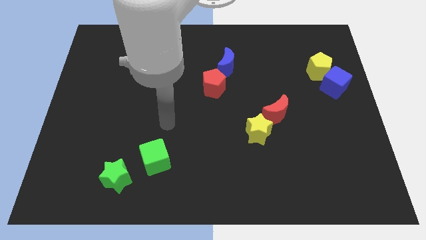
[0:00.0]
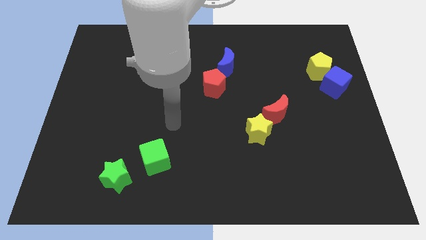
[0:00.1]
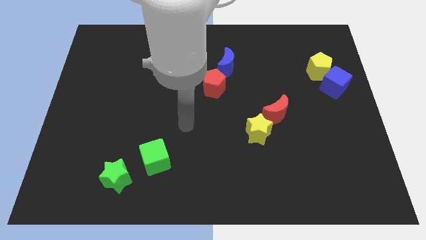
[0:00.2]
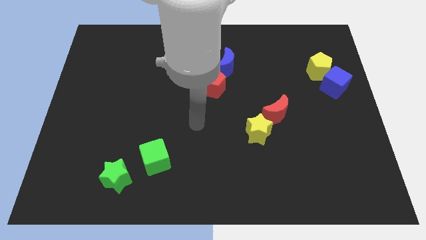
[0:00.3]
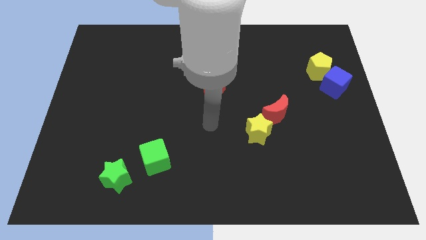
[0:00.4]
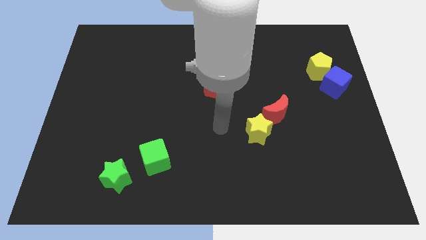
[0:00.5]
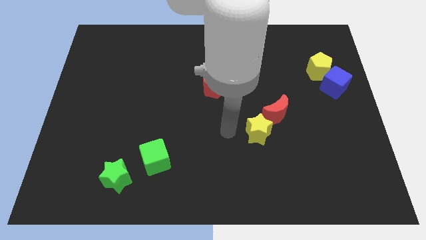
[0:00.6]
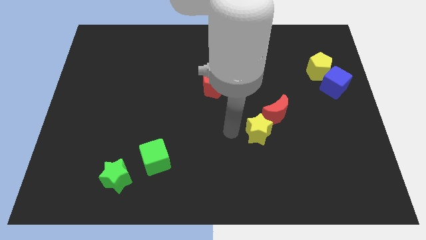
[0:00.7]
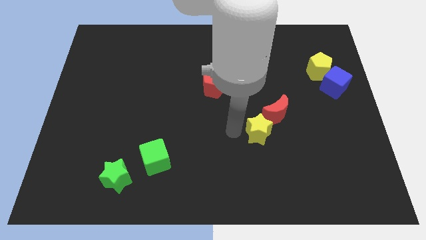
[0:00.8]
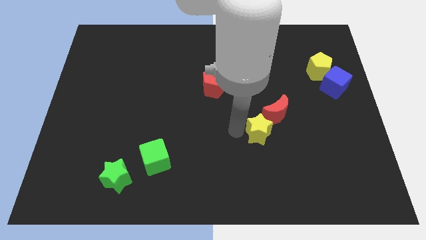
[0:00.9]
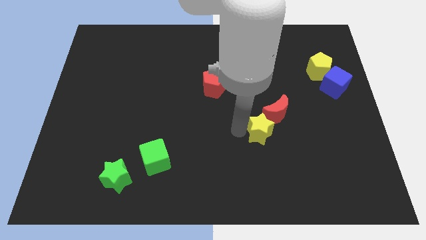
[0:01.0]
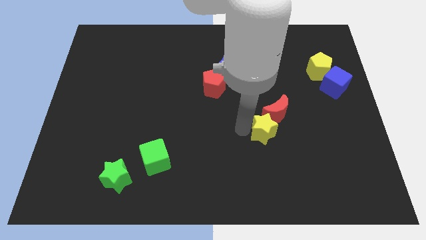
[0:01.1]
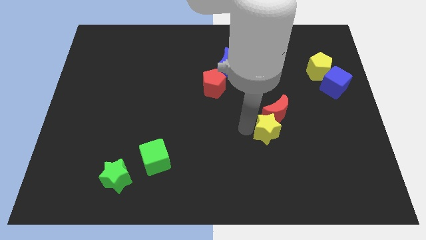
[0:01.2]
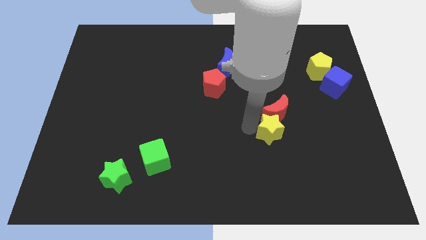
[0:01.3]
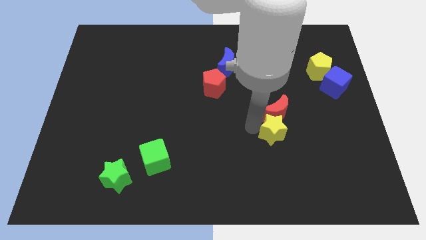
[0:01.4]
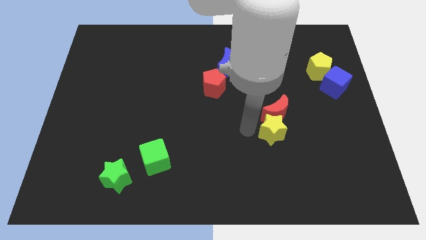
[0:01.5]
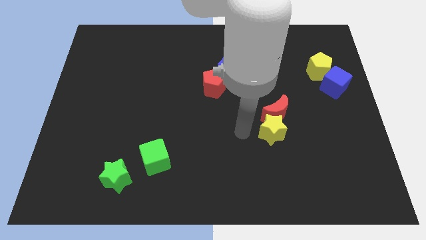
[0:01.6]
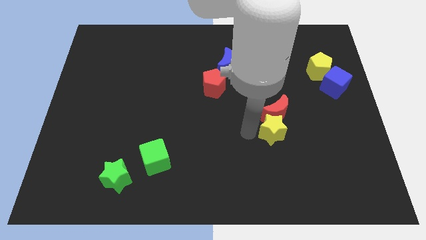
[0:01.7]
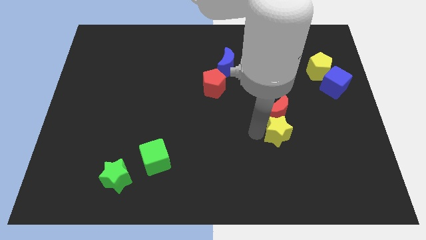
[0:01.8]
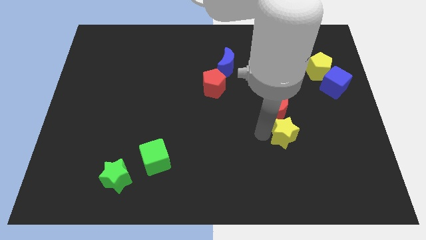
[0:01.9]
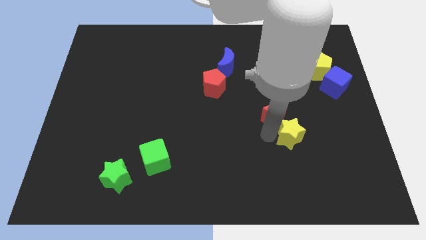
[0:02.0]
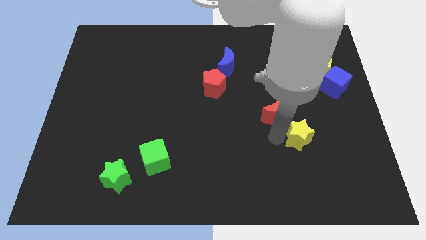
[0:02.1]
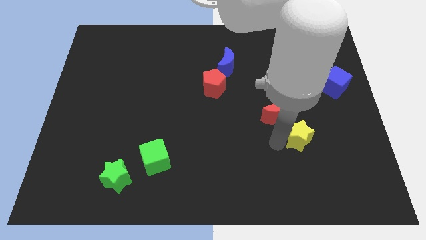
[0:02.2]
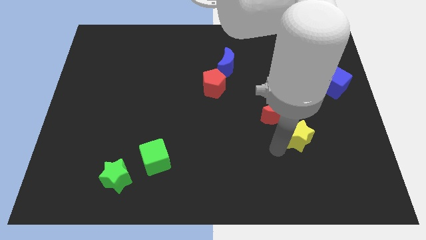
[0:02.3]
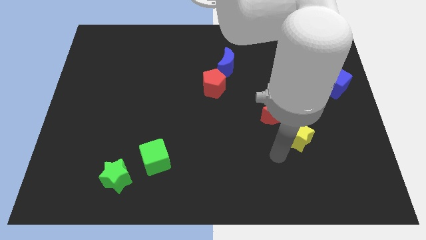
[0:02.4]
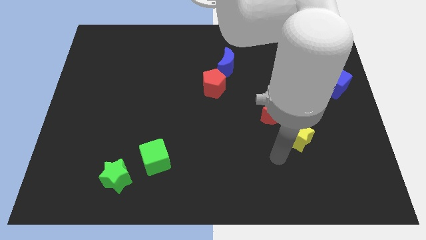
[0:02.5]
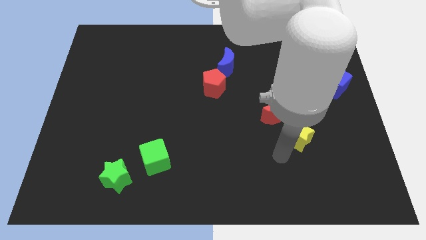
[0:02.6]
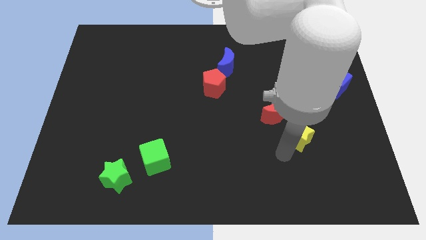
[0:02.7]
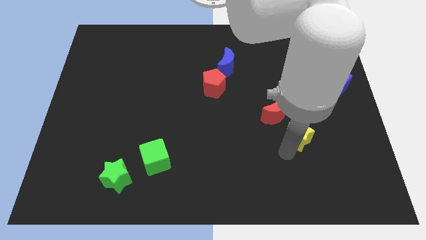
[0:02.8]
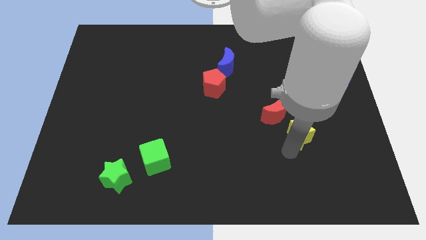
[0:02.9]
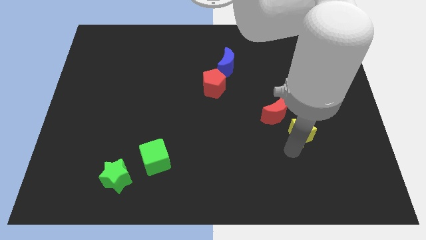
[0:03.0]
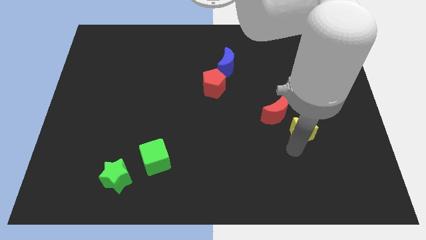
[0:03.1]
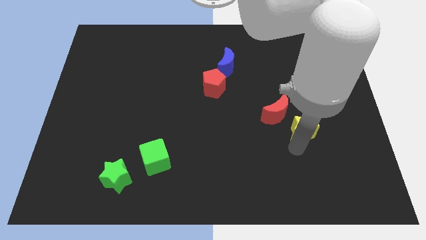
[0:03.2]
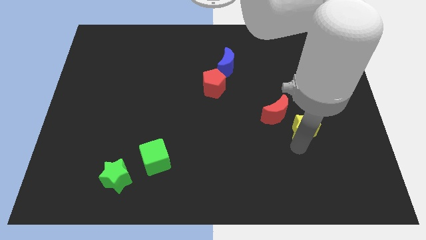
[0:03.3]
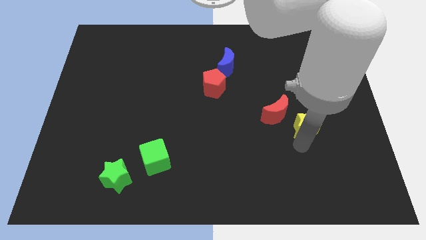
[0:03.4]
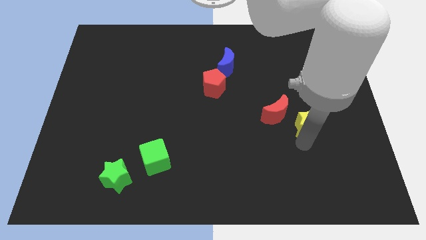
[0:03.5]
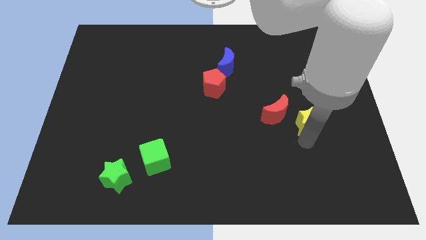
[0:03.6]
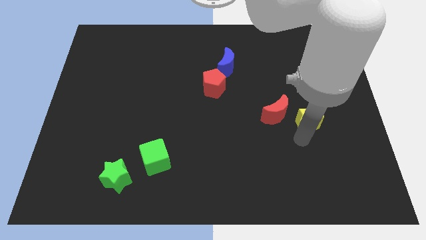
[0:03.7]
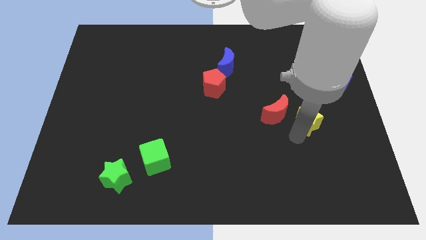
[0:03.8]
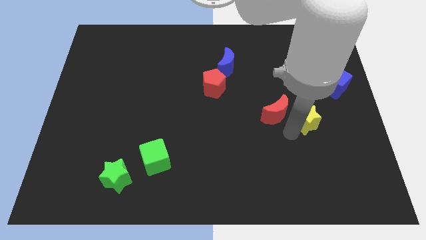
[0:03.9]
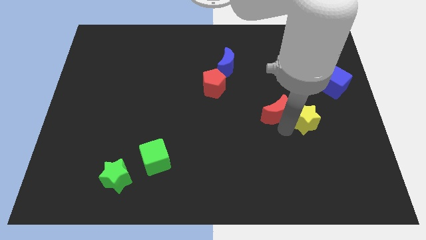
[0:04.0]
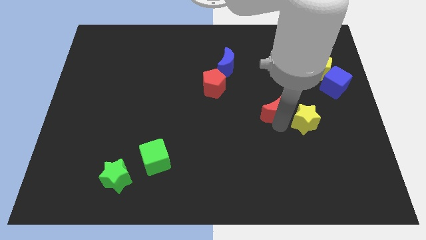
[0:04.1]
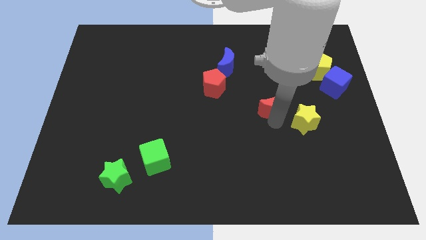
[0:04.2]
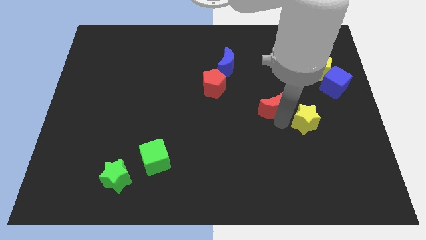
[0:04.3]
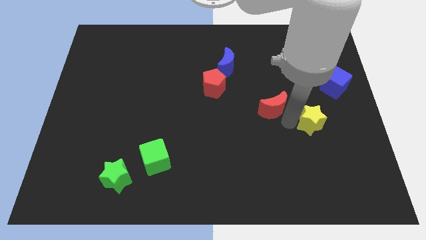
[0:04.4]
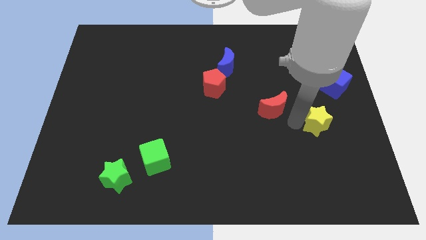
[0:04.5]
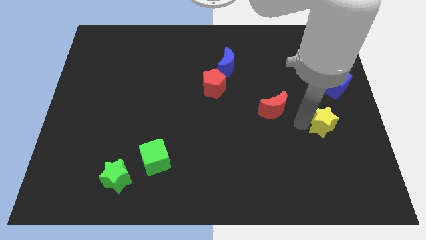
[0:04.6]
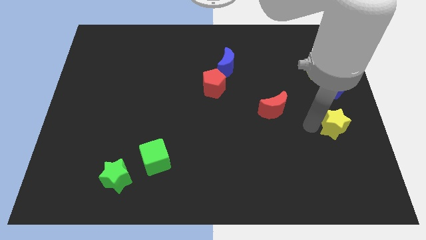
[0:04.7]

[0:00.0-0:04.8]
slide the yellow star to the center right

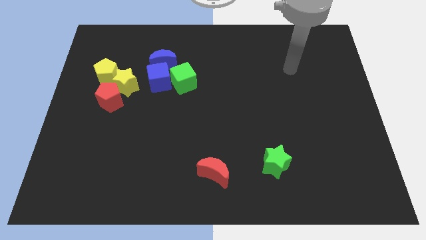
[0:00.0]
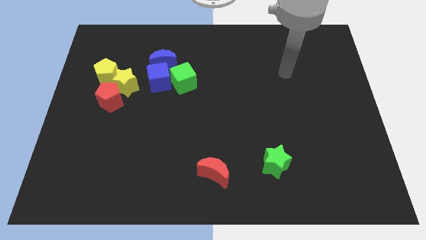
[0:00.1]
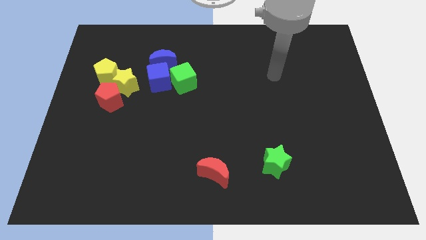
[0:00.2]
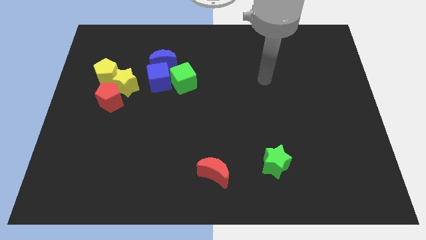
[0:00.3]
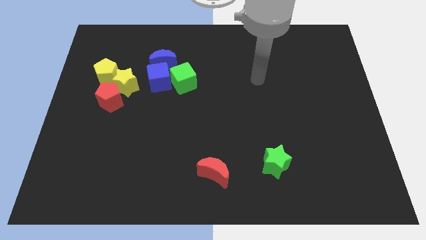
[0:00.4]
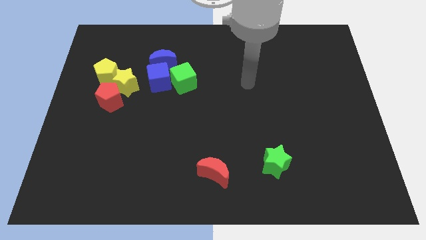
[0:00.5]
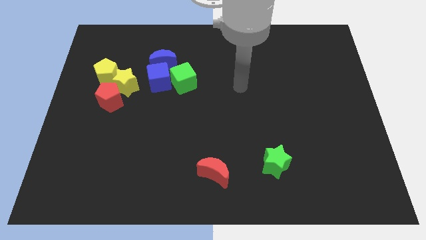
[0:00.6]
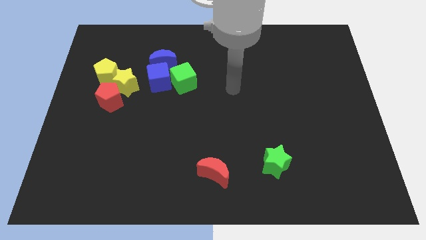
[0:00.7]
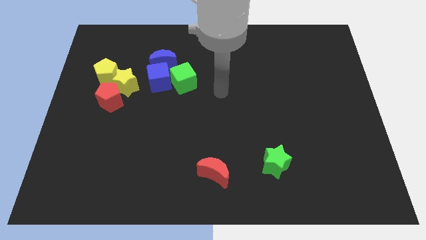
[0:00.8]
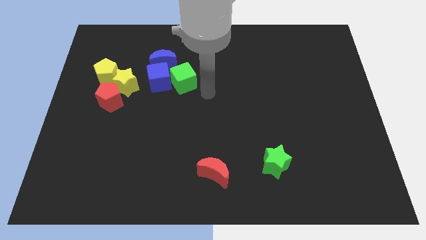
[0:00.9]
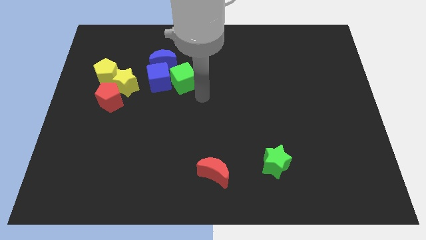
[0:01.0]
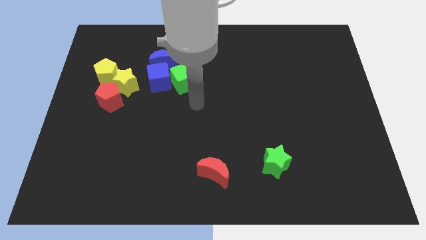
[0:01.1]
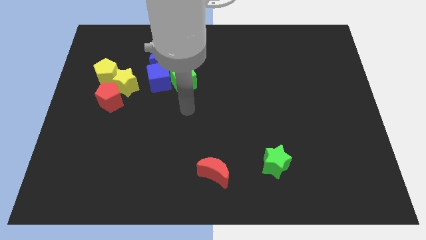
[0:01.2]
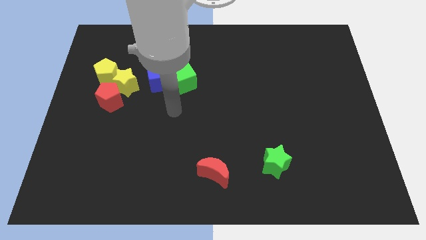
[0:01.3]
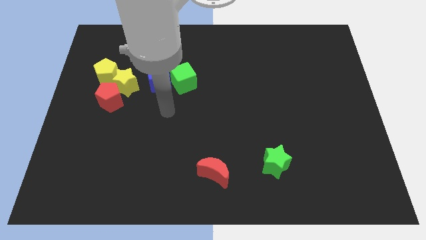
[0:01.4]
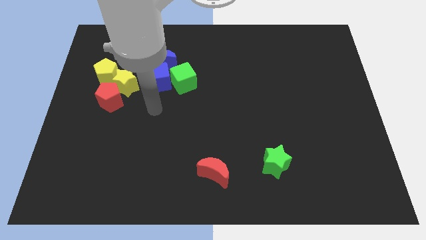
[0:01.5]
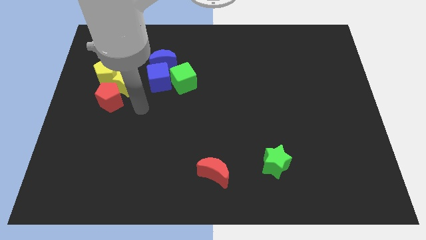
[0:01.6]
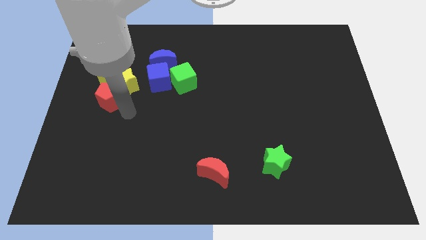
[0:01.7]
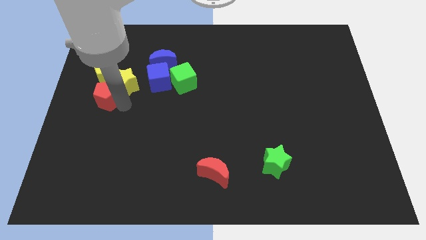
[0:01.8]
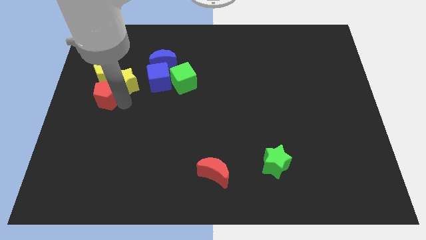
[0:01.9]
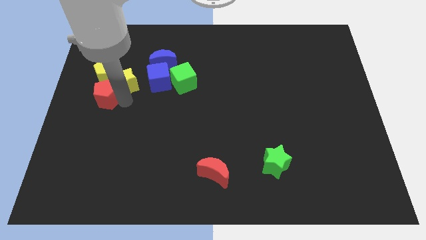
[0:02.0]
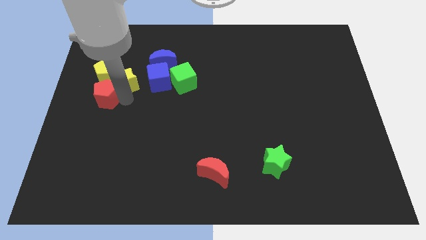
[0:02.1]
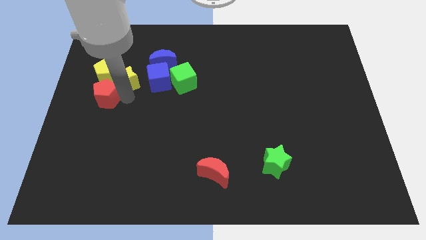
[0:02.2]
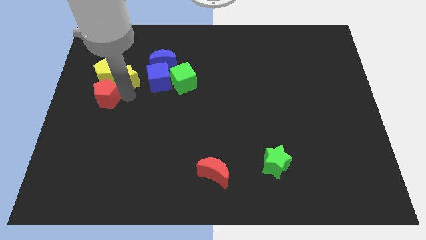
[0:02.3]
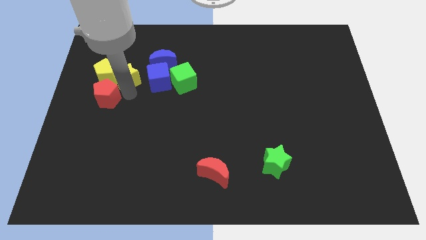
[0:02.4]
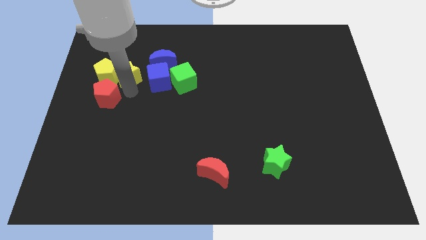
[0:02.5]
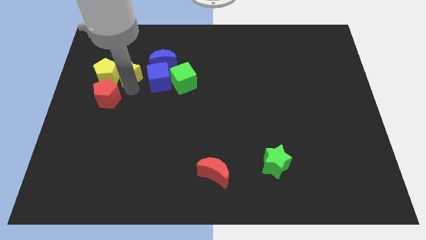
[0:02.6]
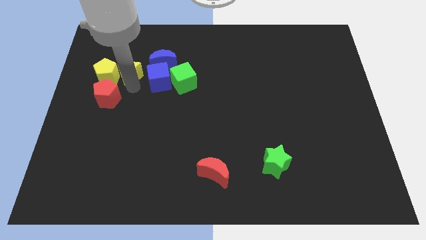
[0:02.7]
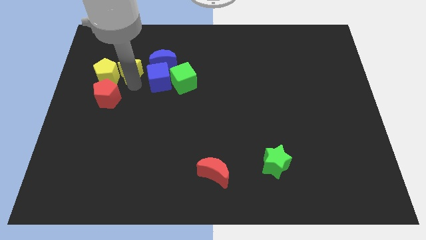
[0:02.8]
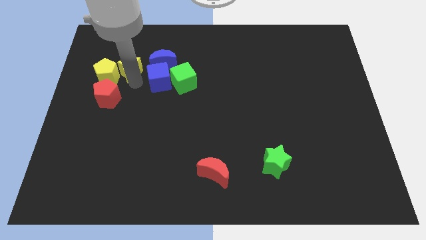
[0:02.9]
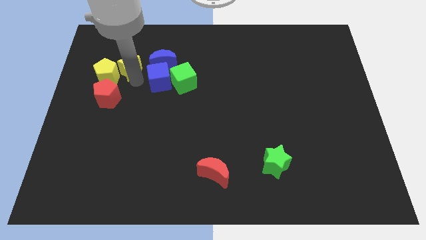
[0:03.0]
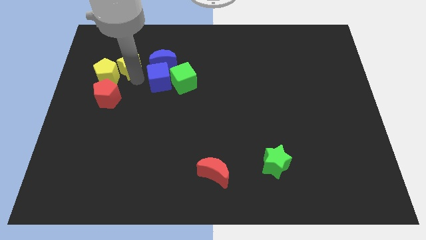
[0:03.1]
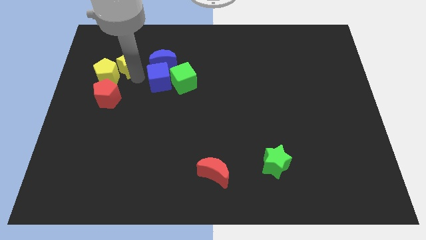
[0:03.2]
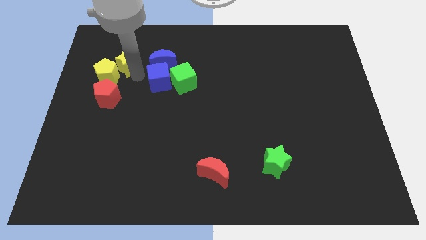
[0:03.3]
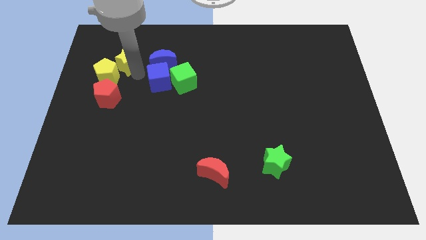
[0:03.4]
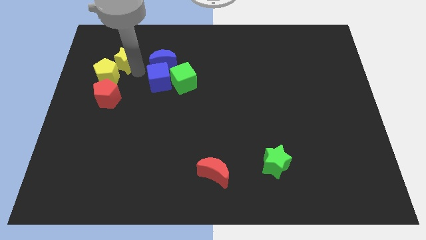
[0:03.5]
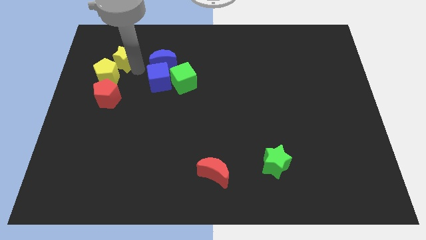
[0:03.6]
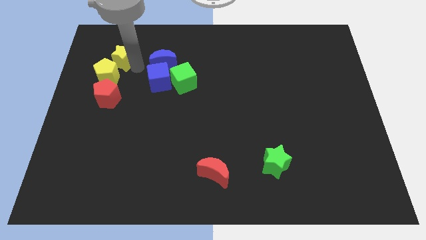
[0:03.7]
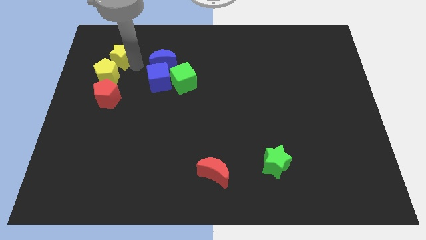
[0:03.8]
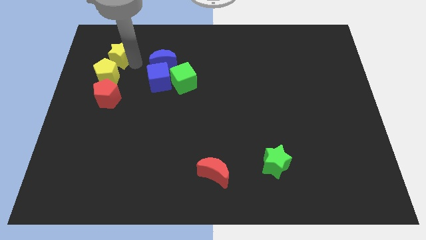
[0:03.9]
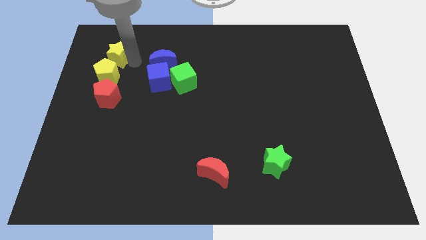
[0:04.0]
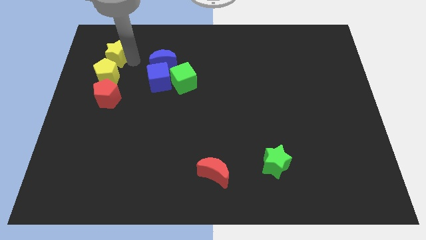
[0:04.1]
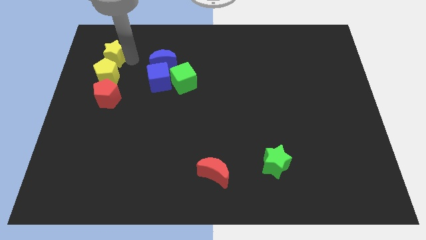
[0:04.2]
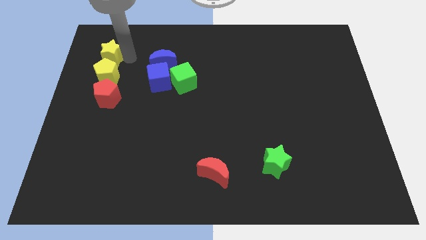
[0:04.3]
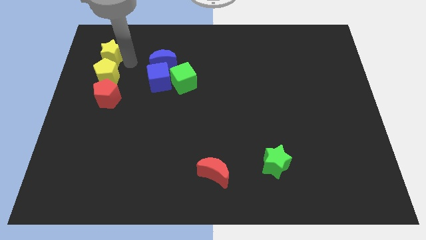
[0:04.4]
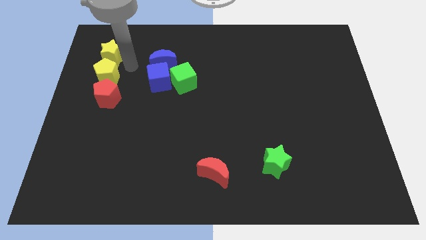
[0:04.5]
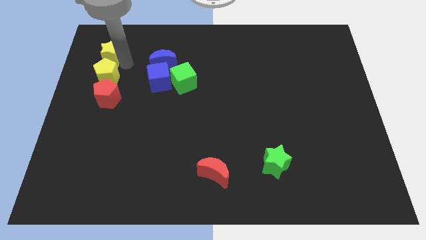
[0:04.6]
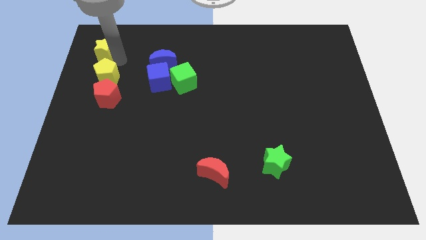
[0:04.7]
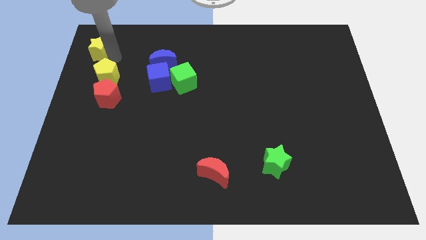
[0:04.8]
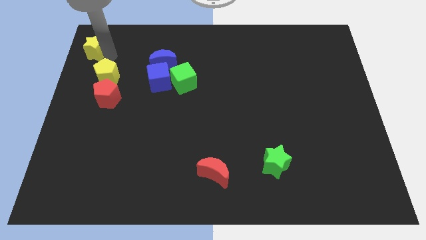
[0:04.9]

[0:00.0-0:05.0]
push the yellow star to the top left corner
